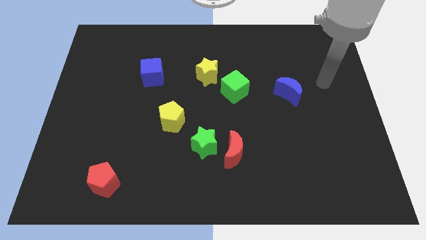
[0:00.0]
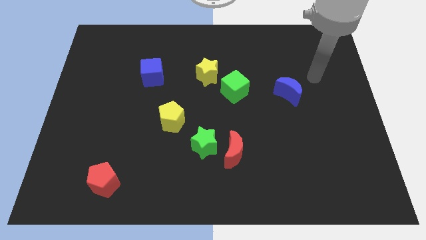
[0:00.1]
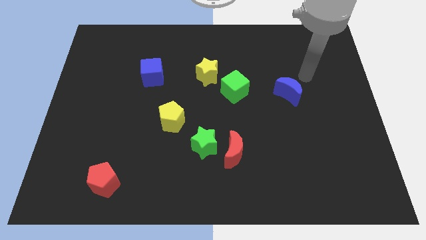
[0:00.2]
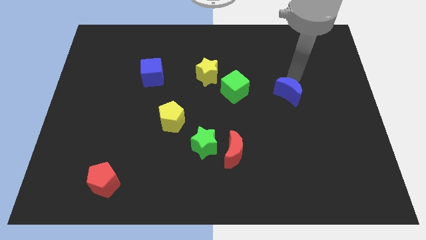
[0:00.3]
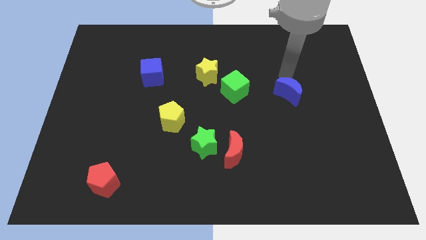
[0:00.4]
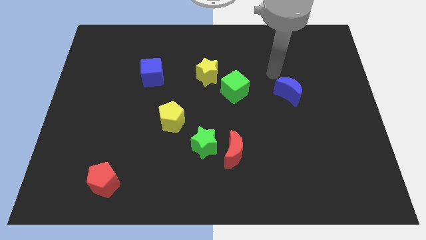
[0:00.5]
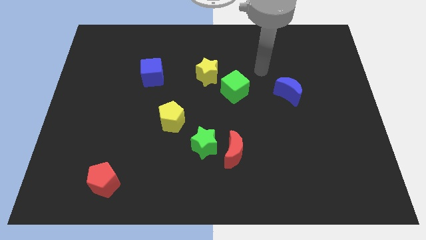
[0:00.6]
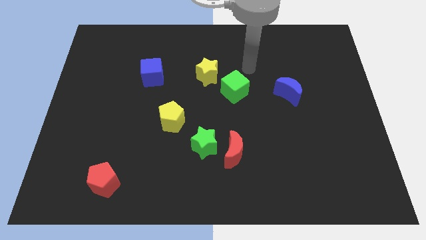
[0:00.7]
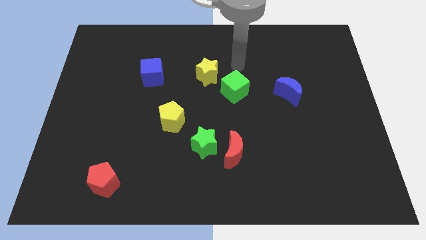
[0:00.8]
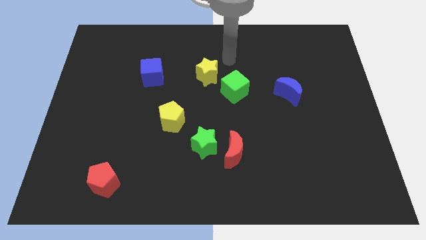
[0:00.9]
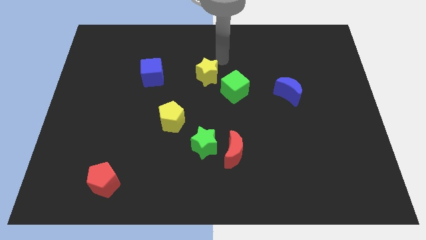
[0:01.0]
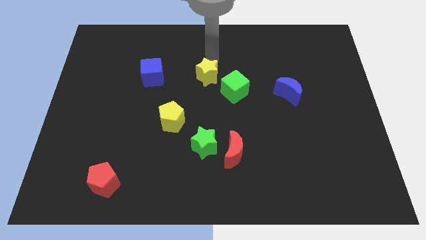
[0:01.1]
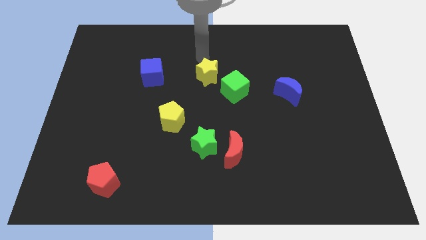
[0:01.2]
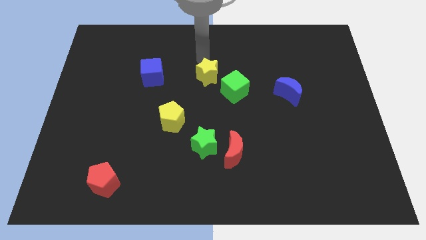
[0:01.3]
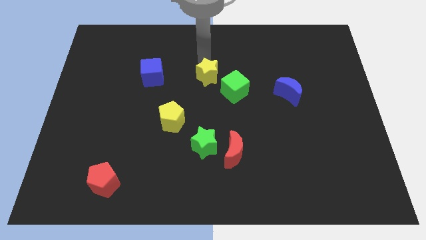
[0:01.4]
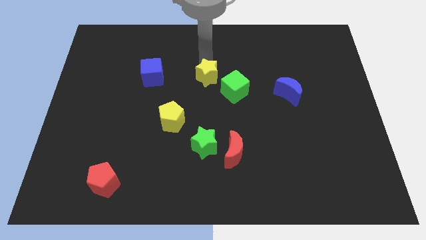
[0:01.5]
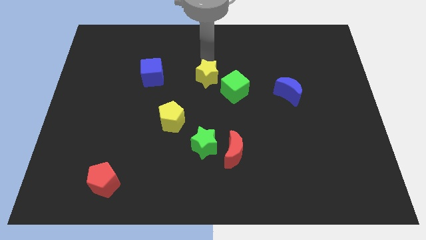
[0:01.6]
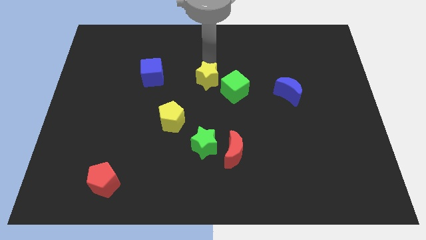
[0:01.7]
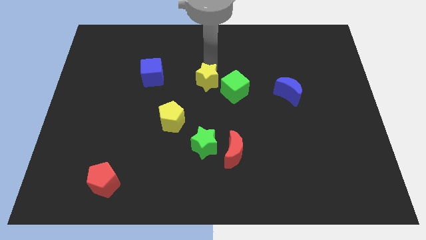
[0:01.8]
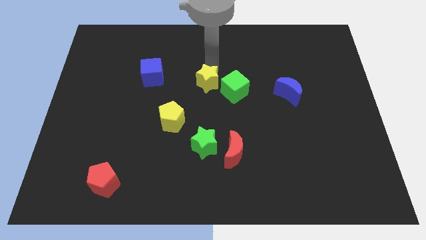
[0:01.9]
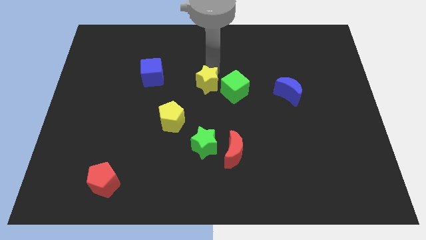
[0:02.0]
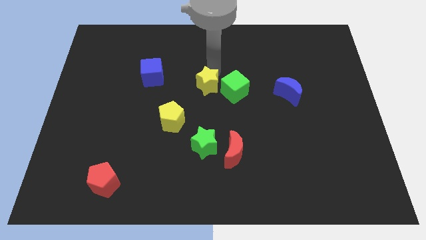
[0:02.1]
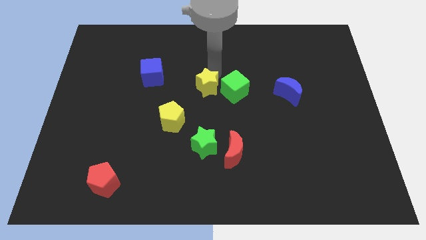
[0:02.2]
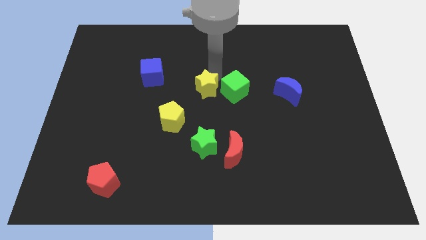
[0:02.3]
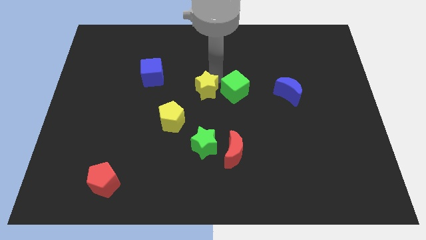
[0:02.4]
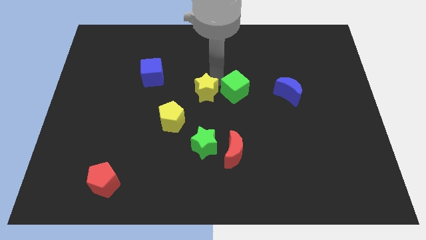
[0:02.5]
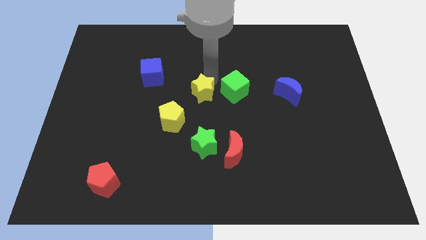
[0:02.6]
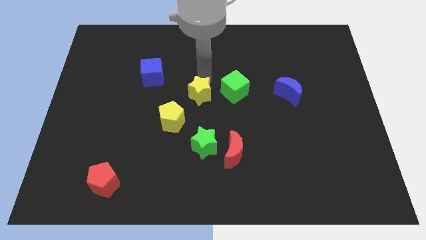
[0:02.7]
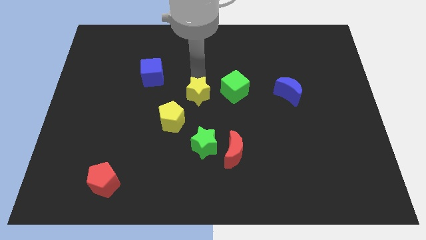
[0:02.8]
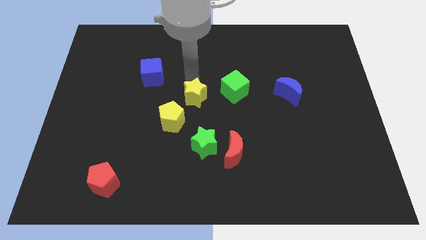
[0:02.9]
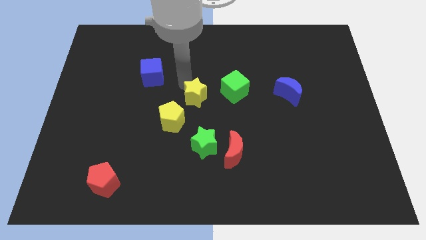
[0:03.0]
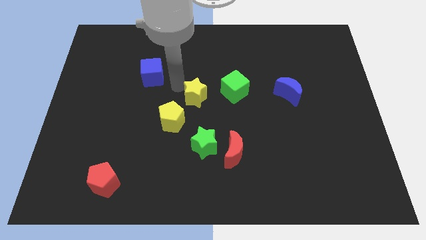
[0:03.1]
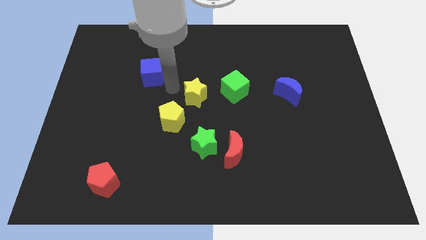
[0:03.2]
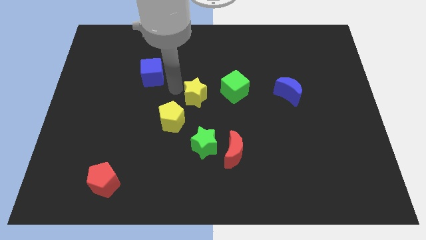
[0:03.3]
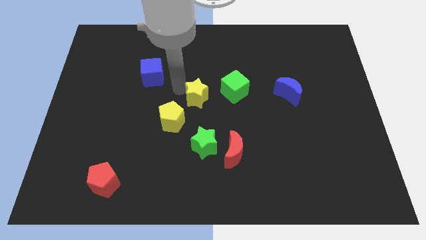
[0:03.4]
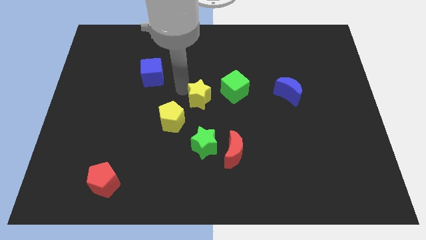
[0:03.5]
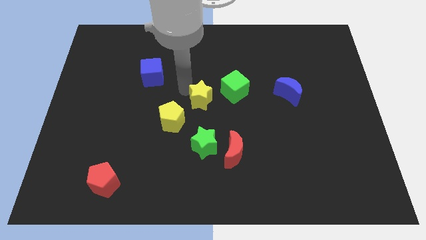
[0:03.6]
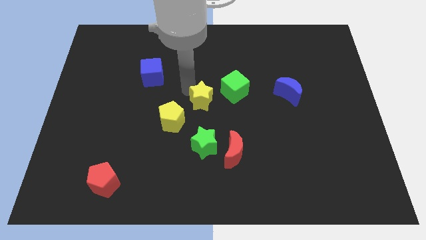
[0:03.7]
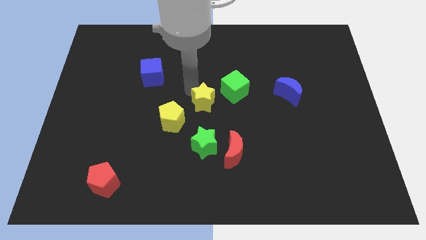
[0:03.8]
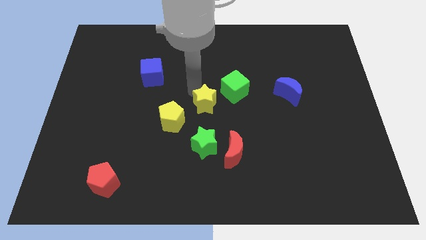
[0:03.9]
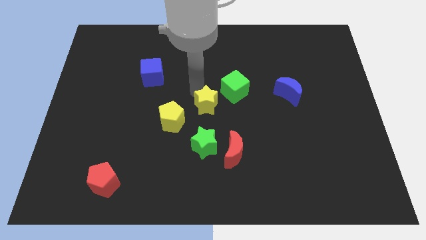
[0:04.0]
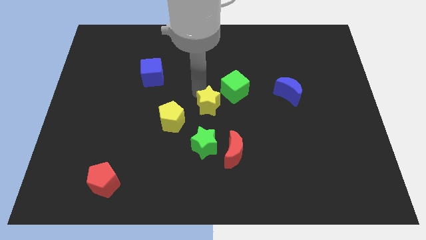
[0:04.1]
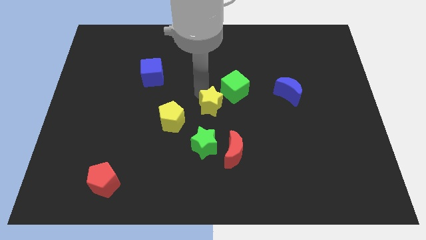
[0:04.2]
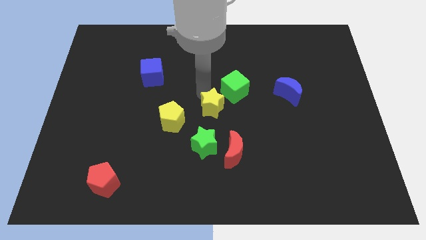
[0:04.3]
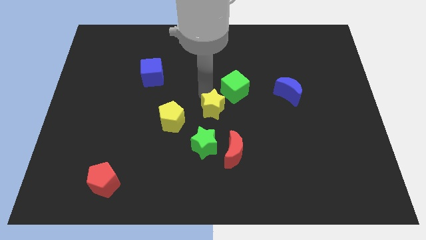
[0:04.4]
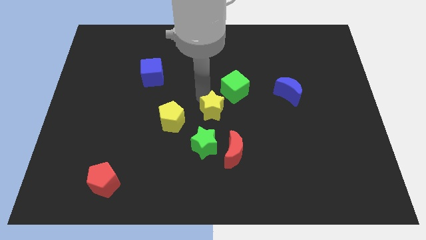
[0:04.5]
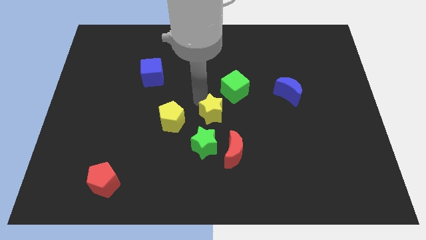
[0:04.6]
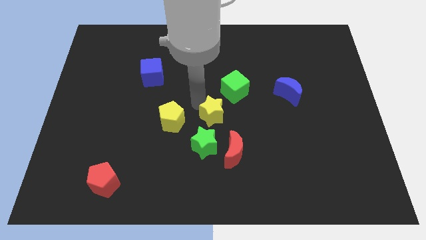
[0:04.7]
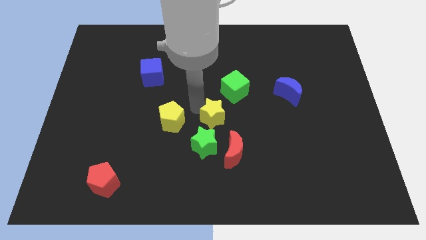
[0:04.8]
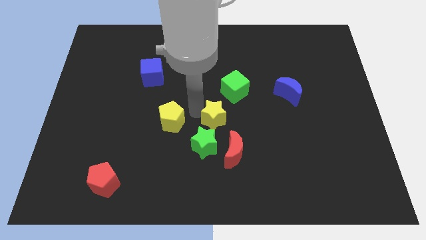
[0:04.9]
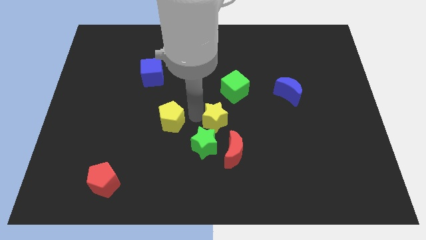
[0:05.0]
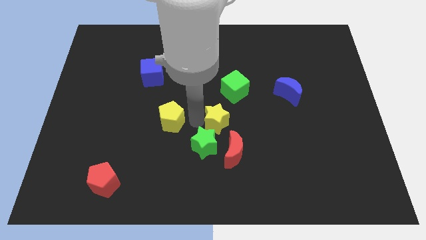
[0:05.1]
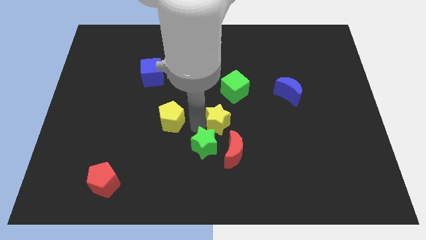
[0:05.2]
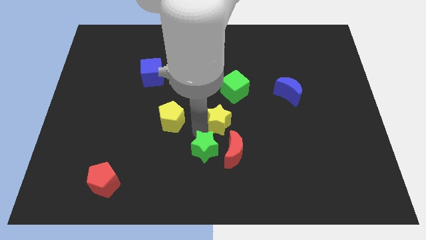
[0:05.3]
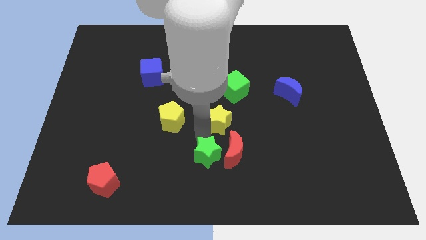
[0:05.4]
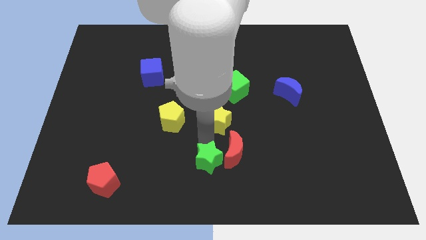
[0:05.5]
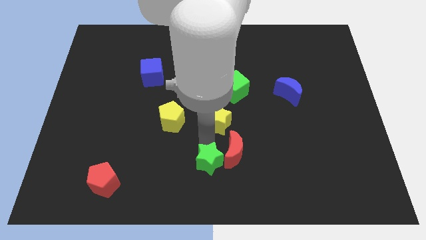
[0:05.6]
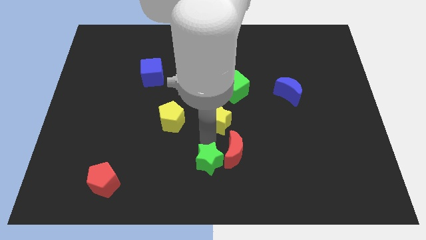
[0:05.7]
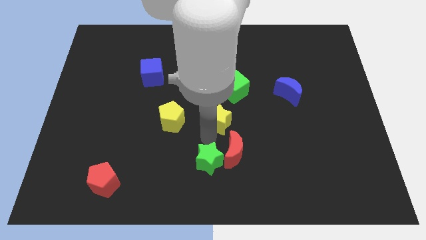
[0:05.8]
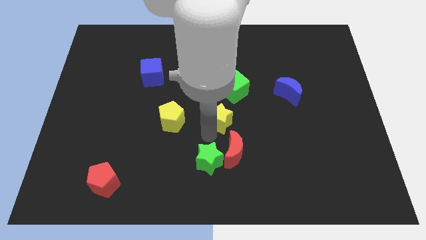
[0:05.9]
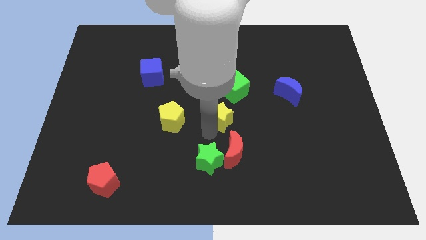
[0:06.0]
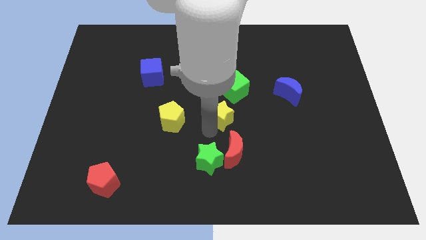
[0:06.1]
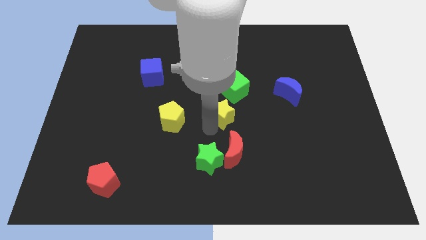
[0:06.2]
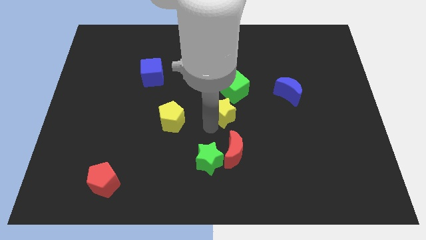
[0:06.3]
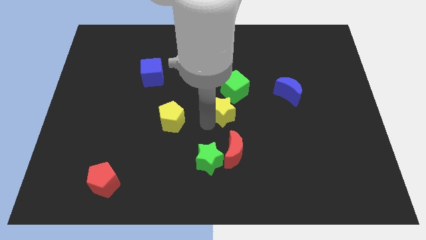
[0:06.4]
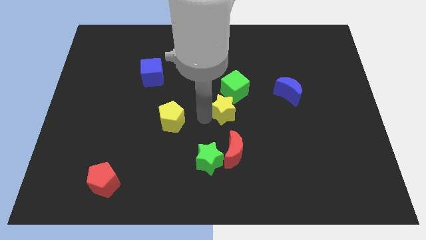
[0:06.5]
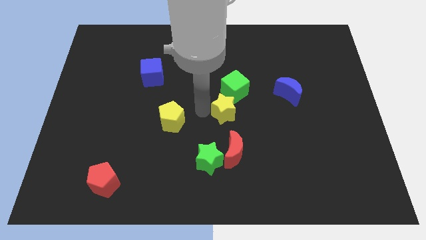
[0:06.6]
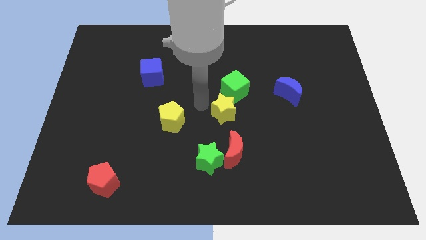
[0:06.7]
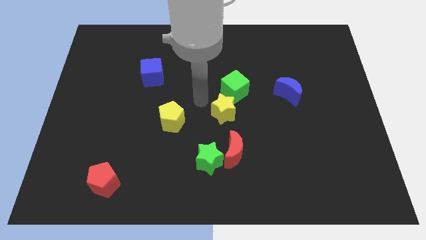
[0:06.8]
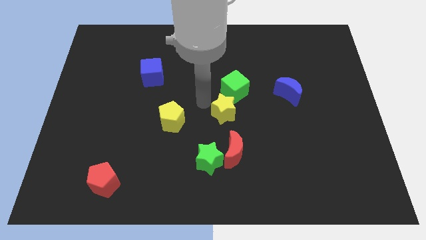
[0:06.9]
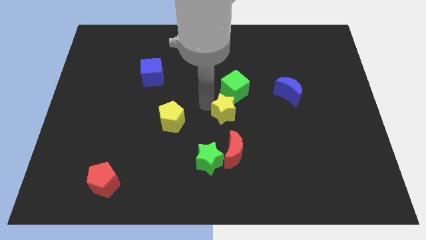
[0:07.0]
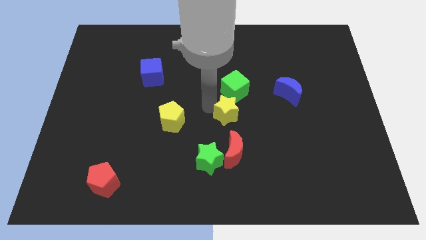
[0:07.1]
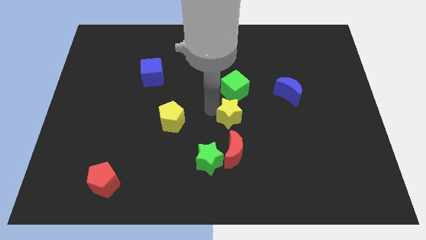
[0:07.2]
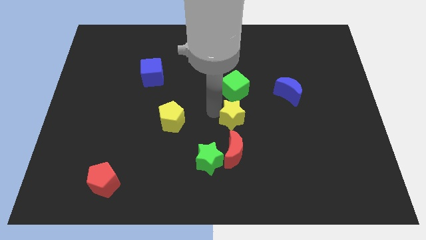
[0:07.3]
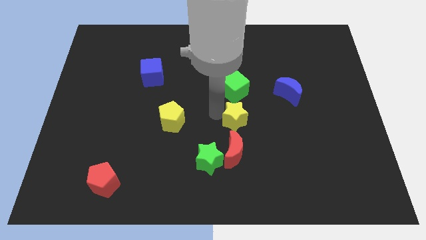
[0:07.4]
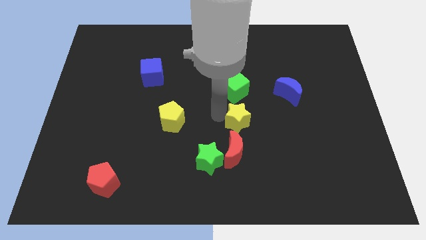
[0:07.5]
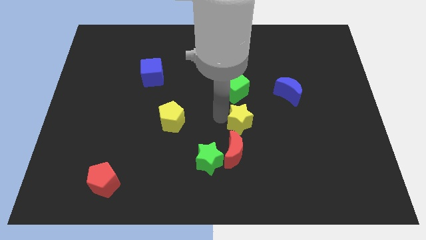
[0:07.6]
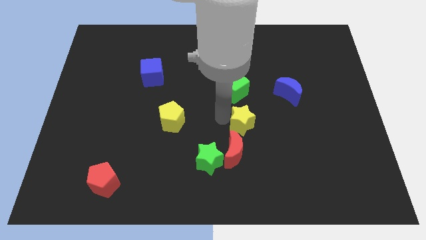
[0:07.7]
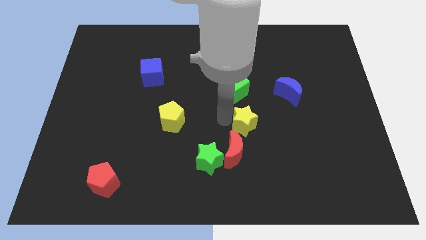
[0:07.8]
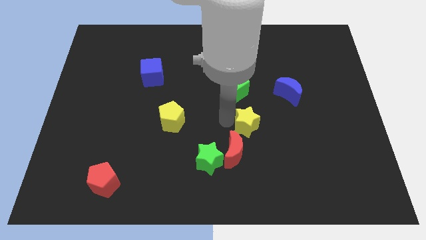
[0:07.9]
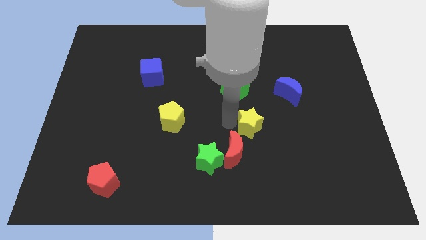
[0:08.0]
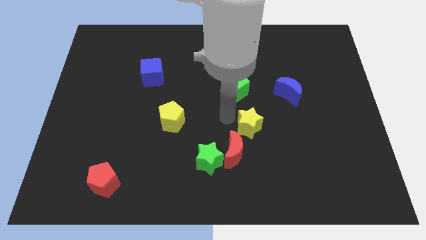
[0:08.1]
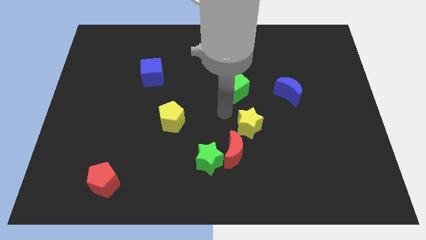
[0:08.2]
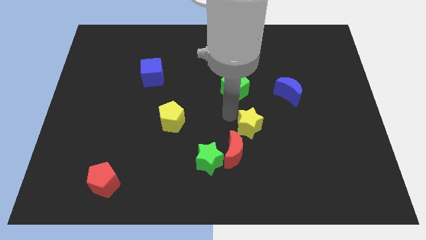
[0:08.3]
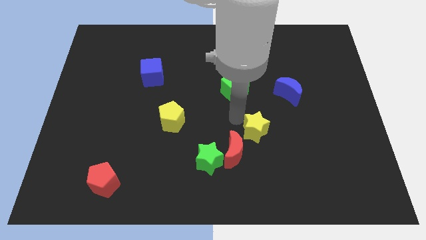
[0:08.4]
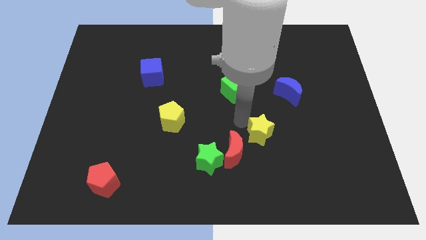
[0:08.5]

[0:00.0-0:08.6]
slide the yellow star downwards and then to the right
